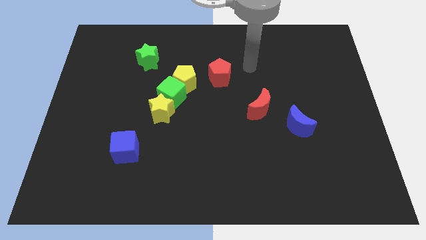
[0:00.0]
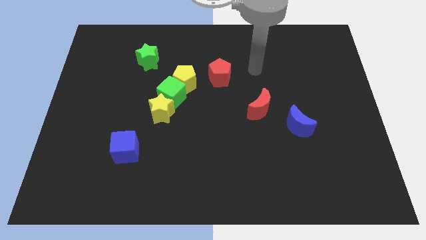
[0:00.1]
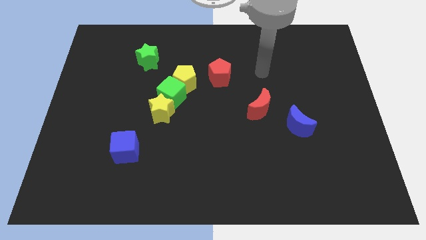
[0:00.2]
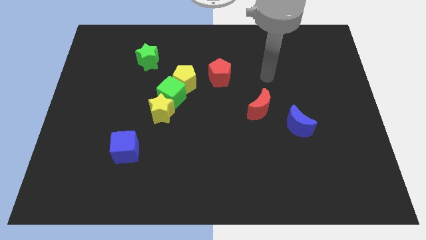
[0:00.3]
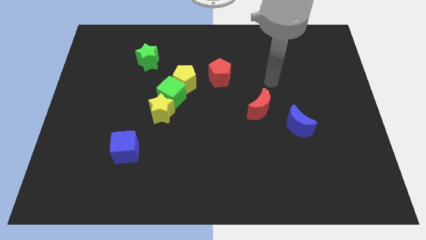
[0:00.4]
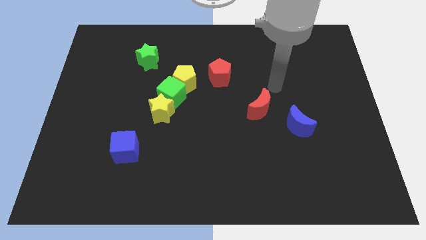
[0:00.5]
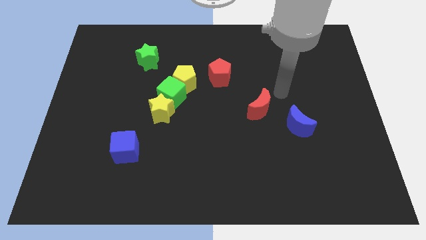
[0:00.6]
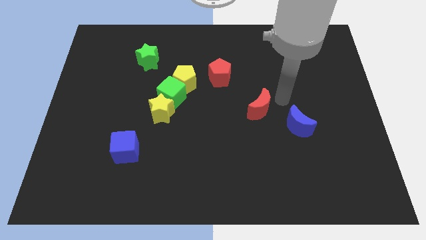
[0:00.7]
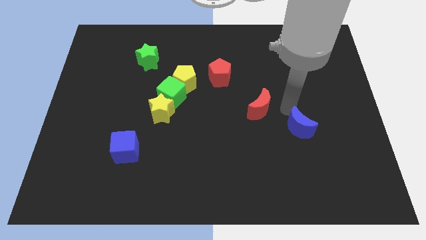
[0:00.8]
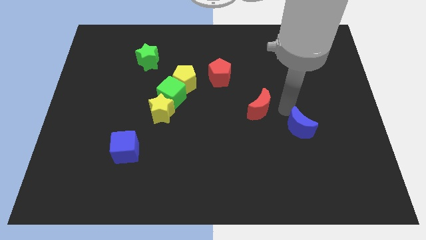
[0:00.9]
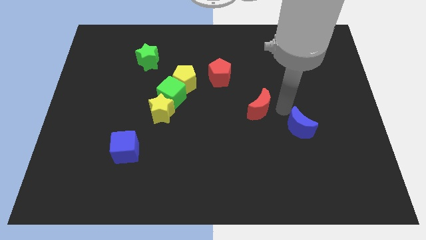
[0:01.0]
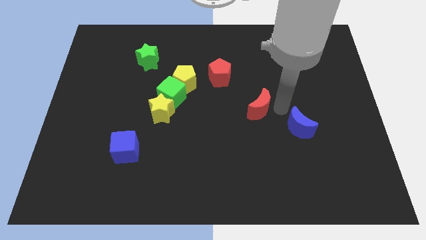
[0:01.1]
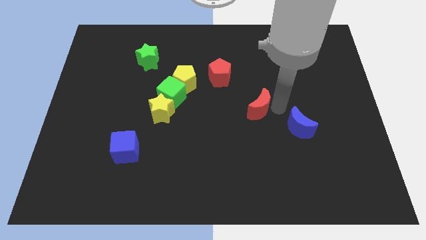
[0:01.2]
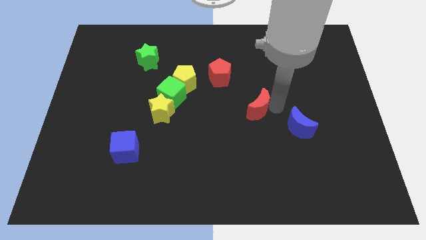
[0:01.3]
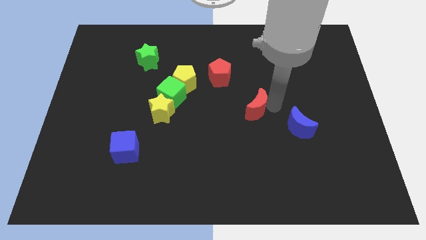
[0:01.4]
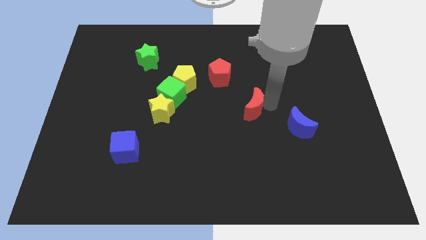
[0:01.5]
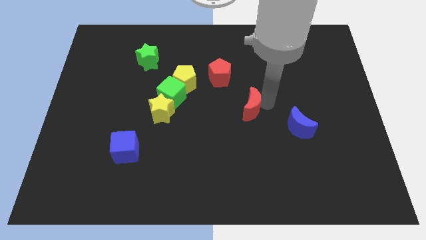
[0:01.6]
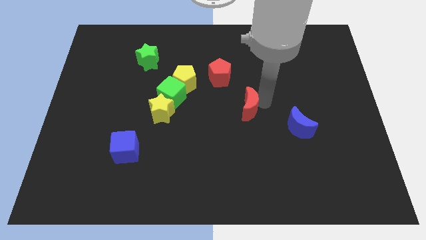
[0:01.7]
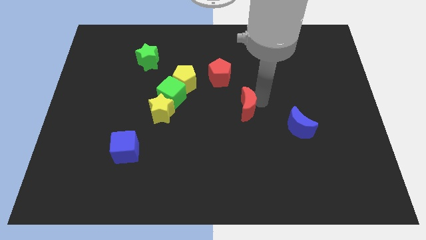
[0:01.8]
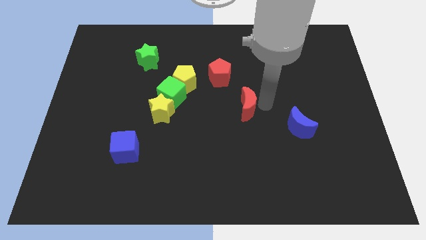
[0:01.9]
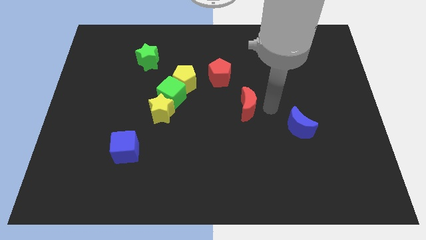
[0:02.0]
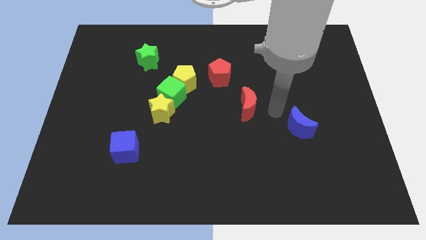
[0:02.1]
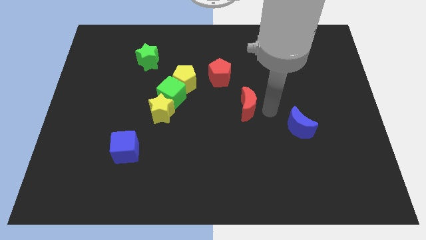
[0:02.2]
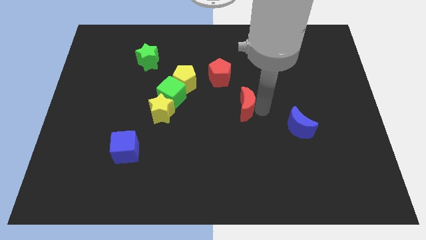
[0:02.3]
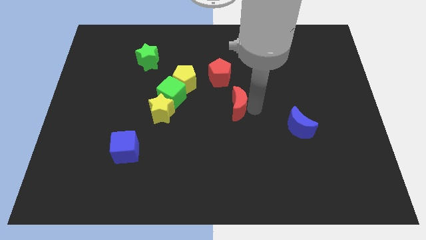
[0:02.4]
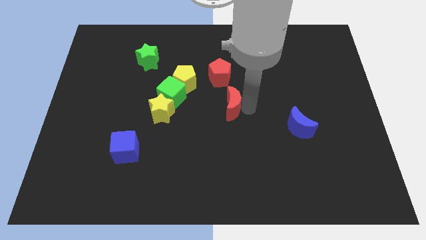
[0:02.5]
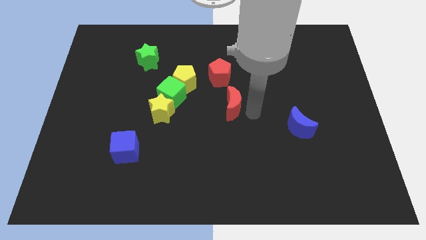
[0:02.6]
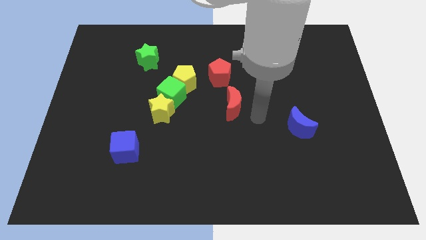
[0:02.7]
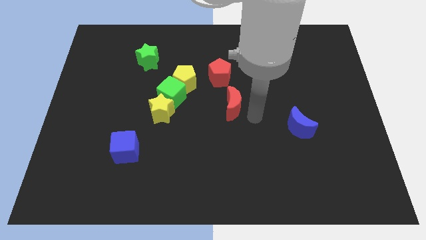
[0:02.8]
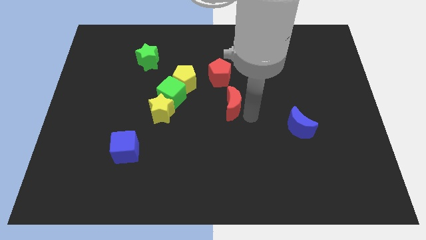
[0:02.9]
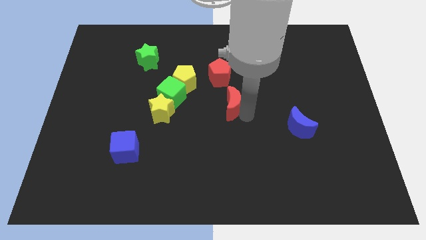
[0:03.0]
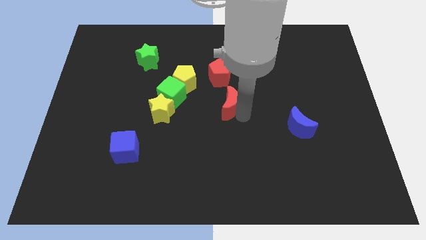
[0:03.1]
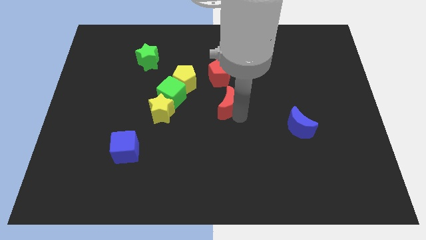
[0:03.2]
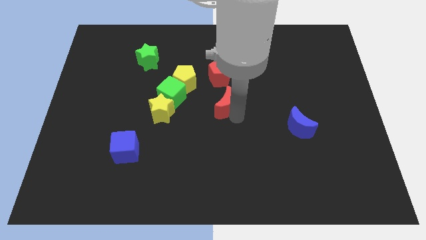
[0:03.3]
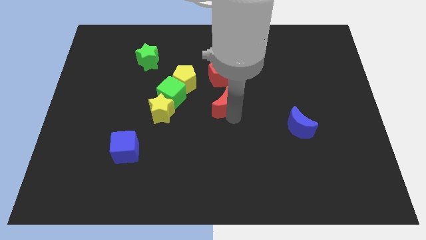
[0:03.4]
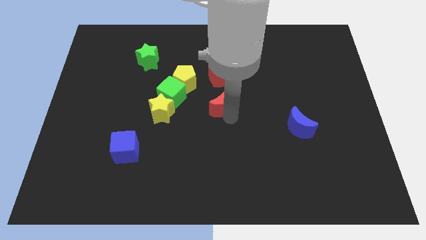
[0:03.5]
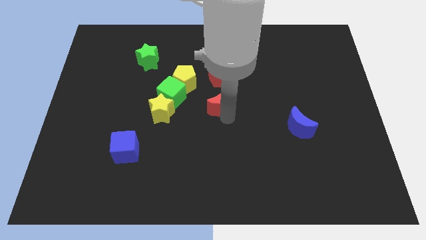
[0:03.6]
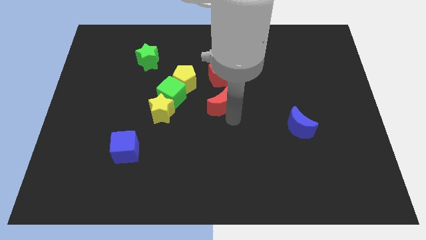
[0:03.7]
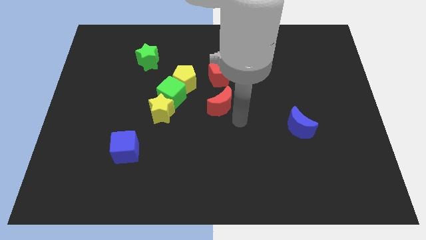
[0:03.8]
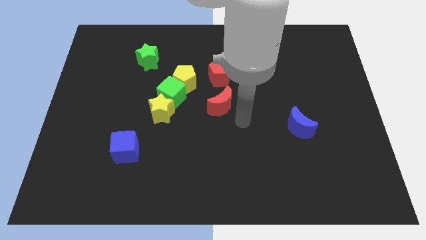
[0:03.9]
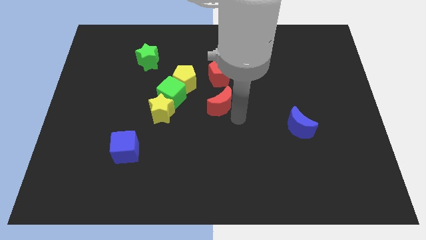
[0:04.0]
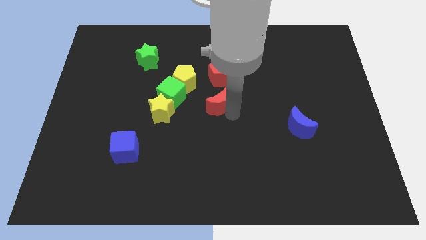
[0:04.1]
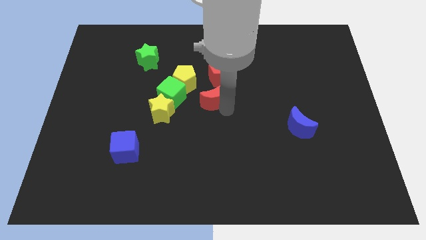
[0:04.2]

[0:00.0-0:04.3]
slide the red moon diagonally up and to the left a bit

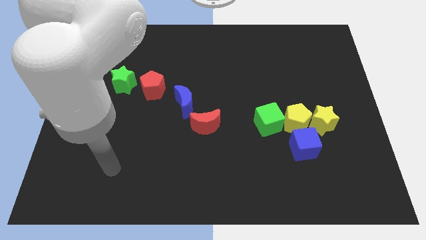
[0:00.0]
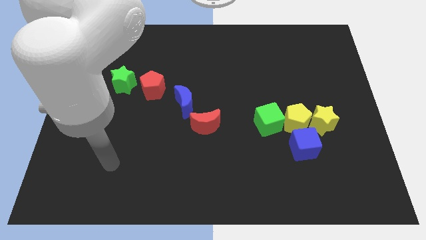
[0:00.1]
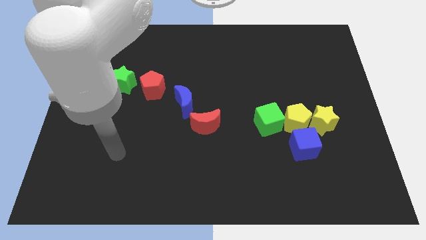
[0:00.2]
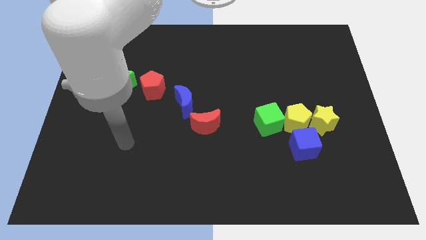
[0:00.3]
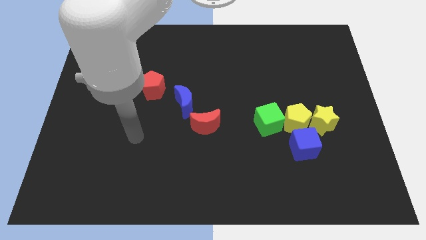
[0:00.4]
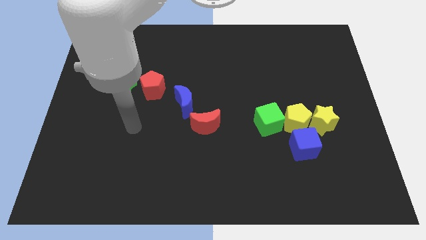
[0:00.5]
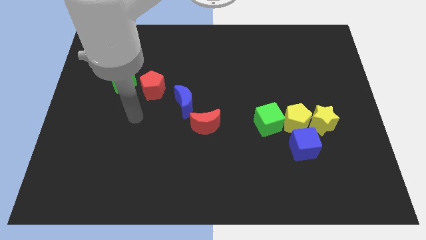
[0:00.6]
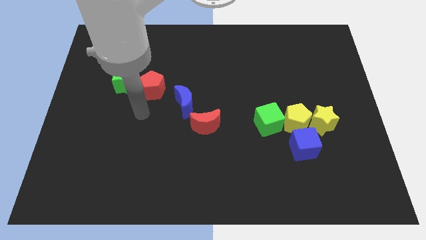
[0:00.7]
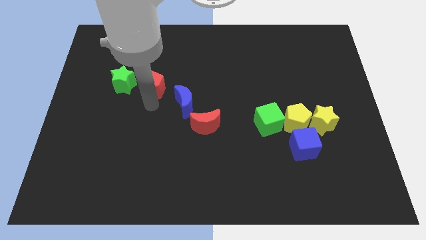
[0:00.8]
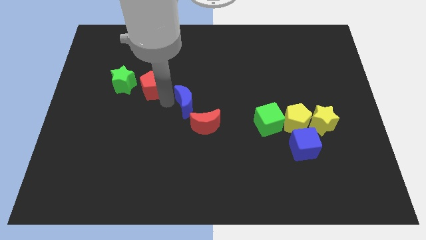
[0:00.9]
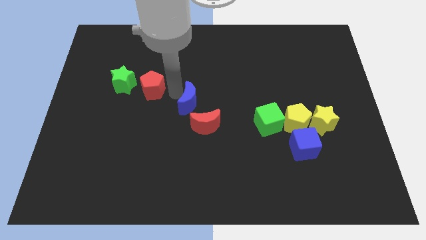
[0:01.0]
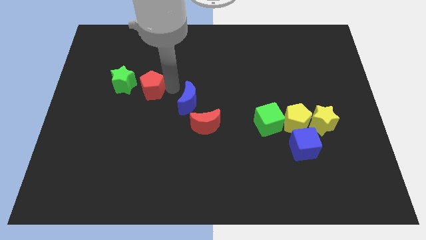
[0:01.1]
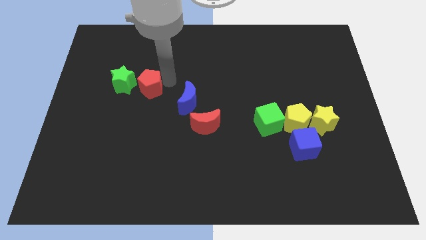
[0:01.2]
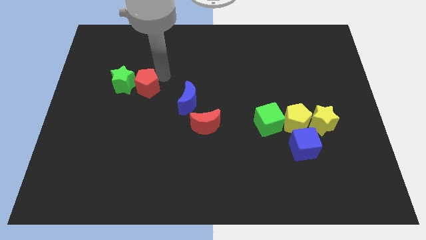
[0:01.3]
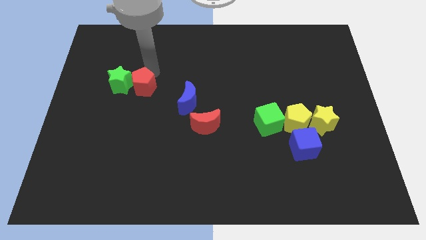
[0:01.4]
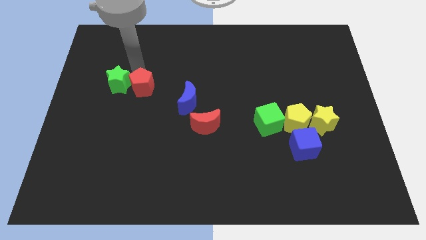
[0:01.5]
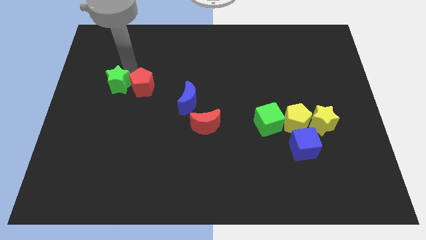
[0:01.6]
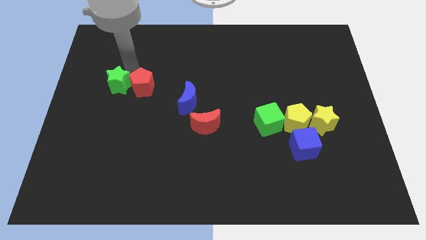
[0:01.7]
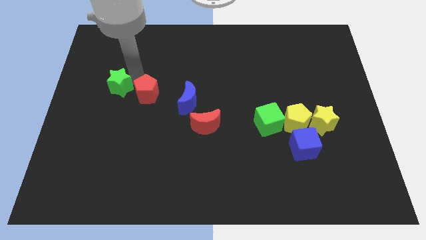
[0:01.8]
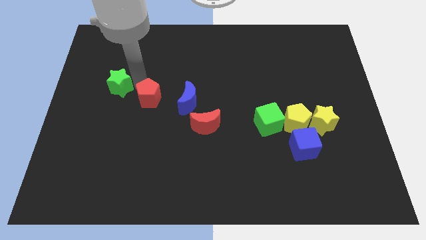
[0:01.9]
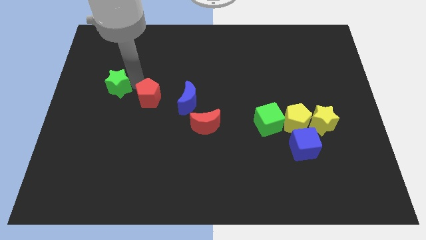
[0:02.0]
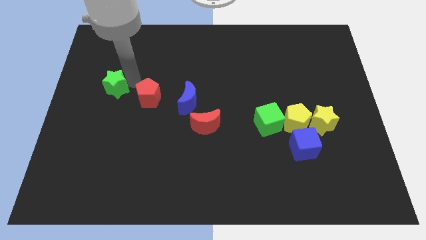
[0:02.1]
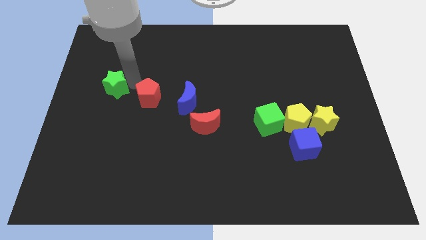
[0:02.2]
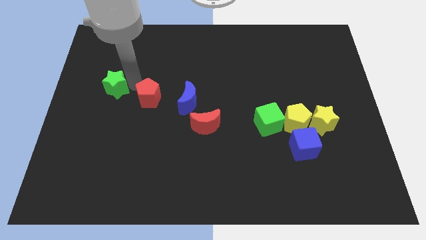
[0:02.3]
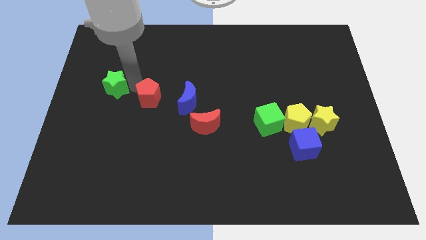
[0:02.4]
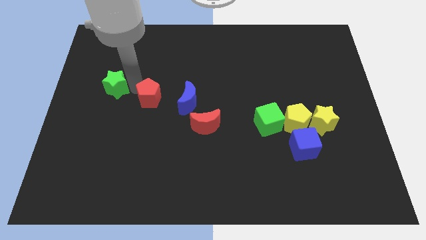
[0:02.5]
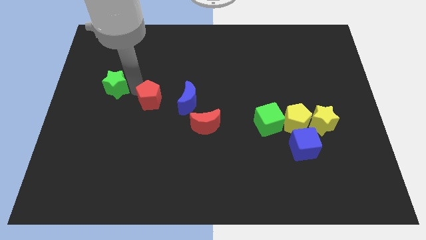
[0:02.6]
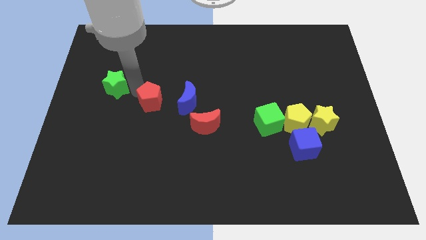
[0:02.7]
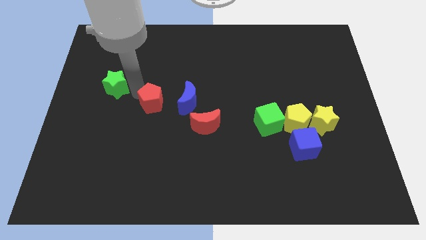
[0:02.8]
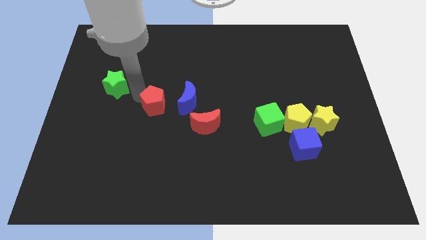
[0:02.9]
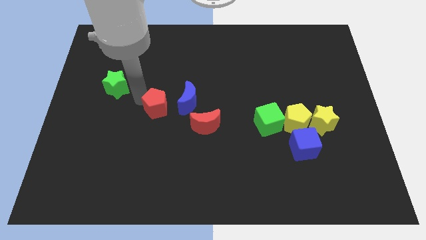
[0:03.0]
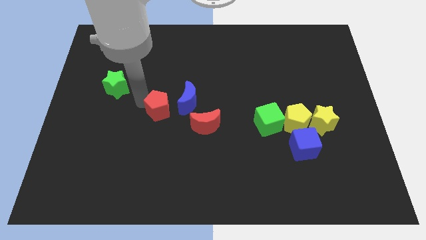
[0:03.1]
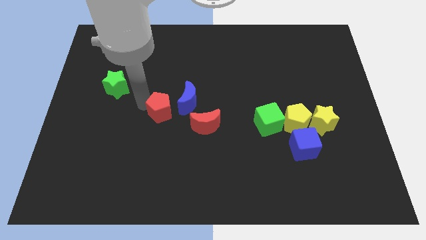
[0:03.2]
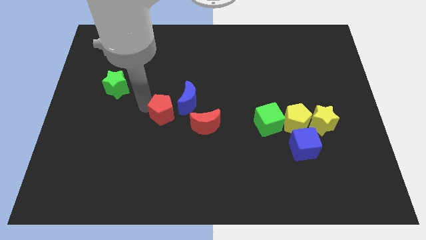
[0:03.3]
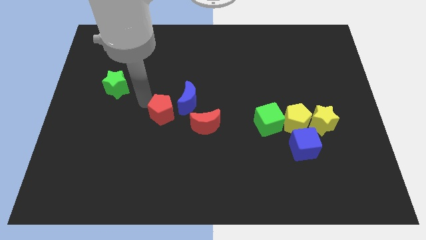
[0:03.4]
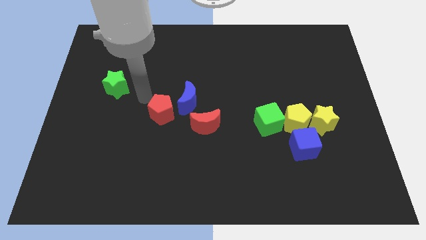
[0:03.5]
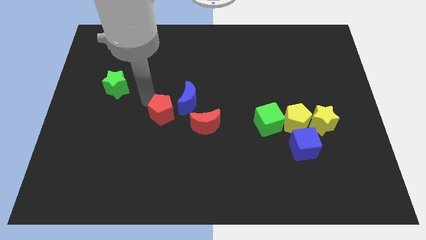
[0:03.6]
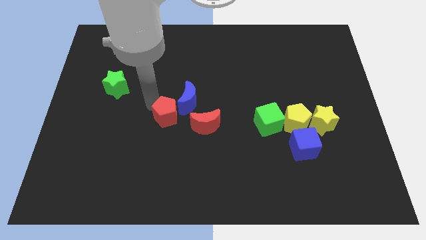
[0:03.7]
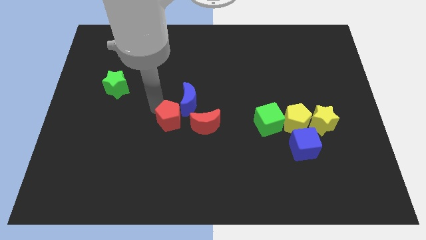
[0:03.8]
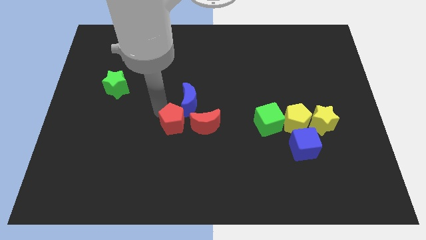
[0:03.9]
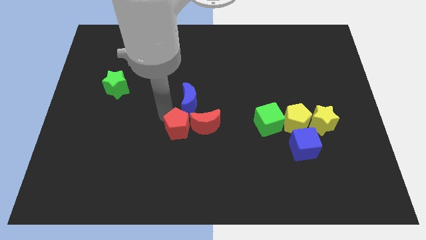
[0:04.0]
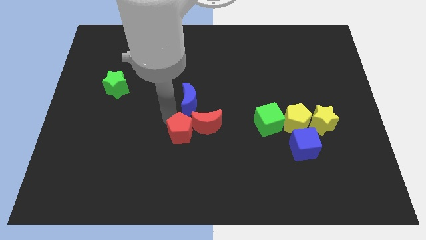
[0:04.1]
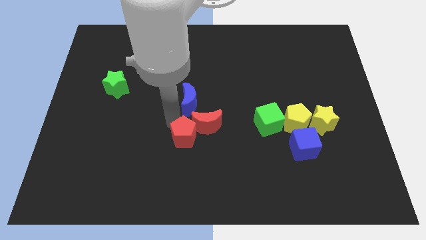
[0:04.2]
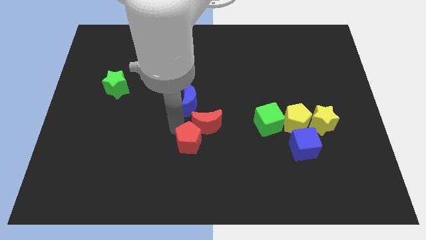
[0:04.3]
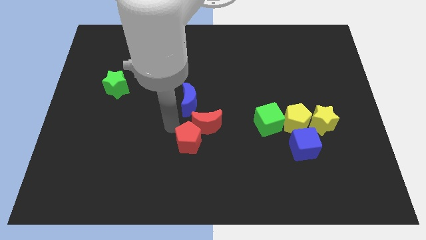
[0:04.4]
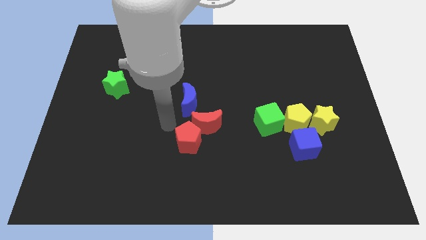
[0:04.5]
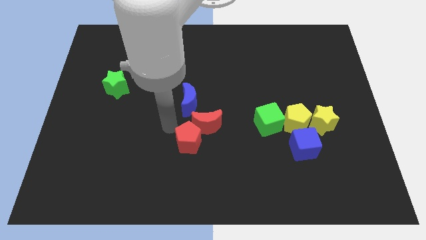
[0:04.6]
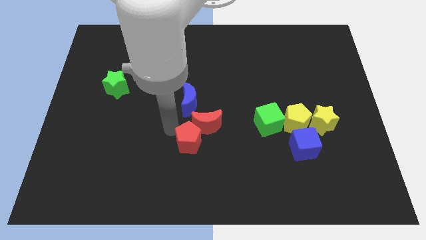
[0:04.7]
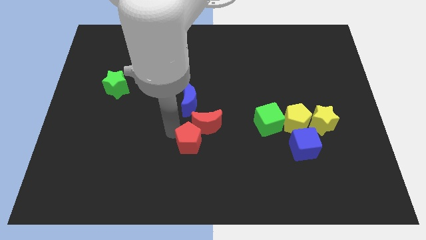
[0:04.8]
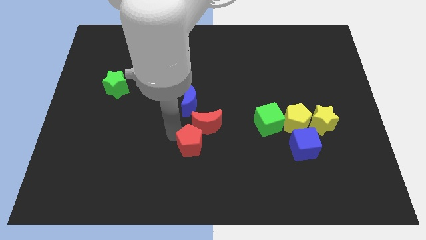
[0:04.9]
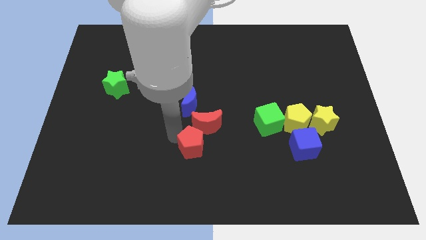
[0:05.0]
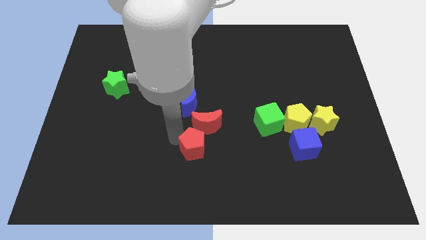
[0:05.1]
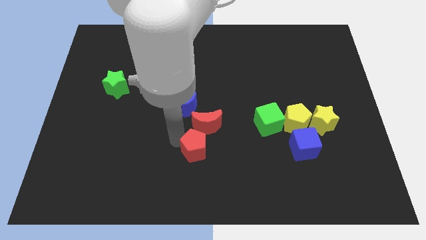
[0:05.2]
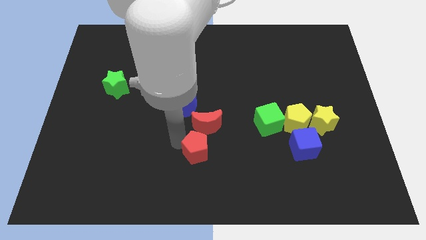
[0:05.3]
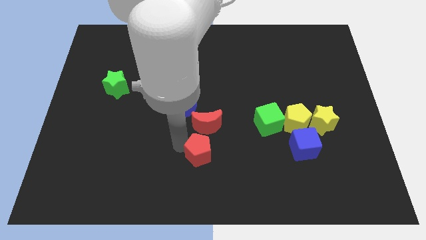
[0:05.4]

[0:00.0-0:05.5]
move the red pentagon downwards and then right
